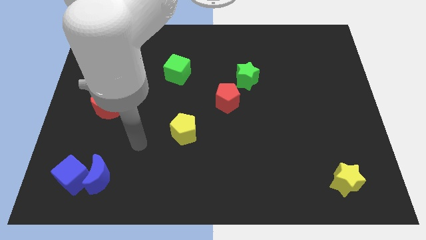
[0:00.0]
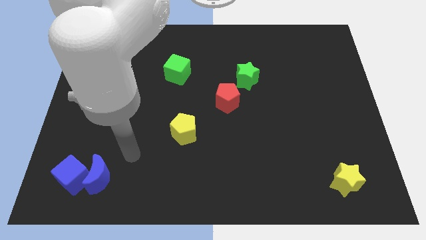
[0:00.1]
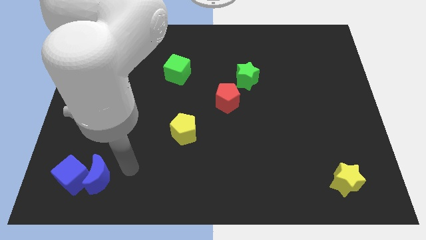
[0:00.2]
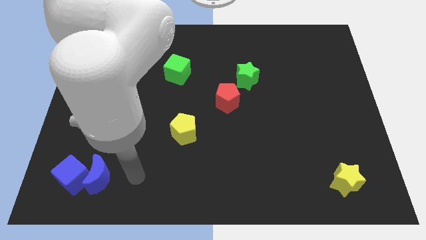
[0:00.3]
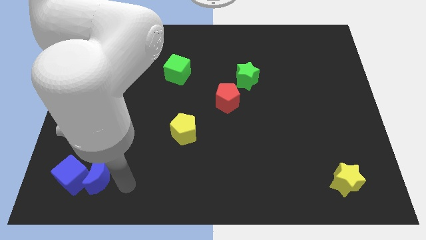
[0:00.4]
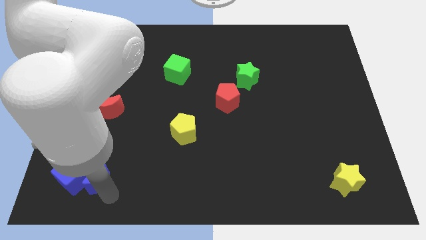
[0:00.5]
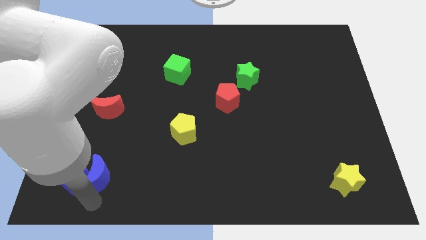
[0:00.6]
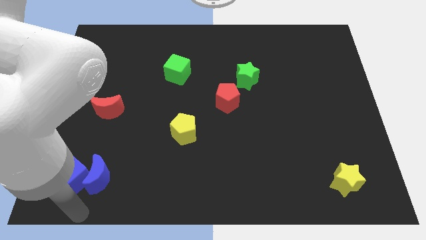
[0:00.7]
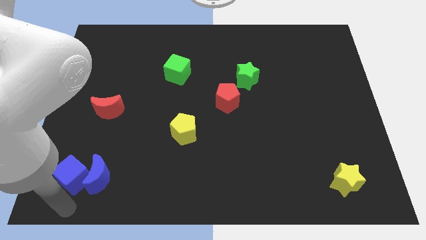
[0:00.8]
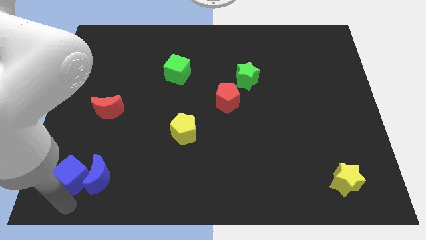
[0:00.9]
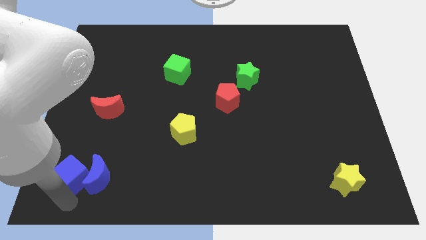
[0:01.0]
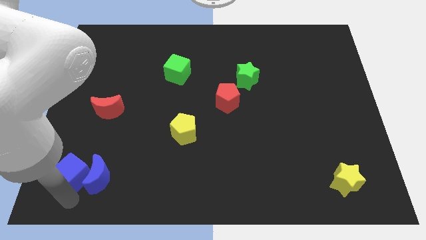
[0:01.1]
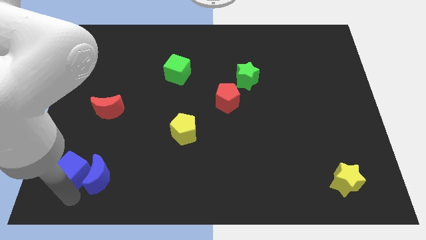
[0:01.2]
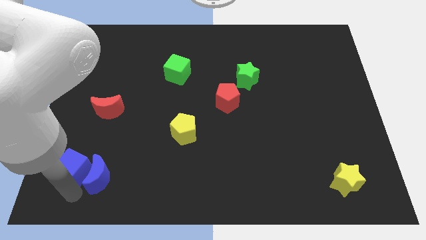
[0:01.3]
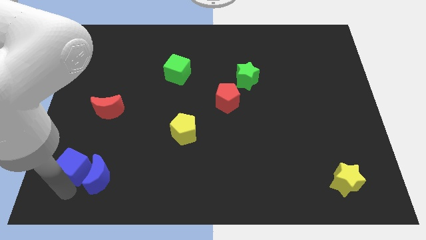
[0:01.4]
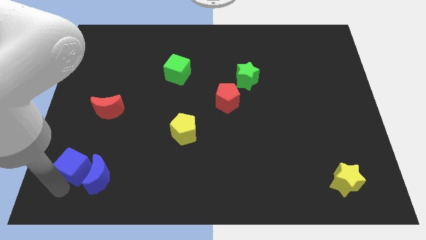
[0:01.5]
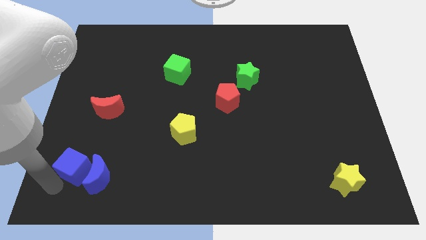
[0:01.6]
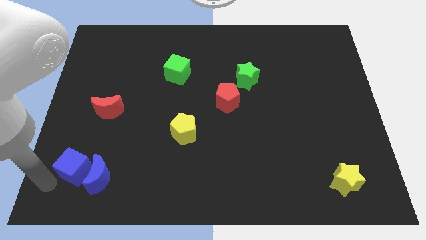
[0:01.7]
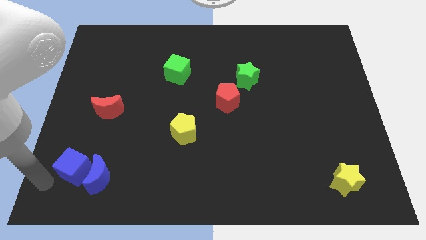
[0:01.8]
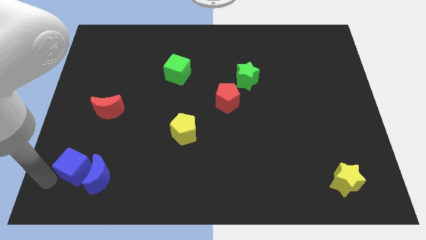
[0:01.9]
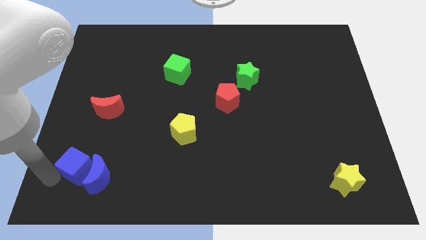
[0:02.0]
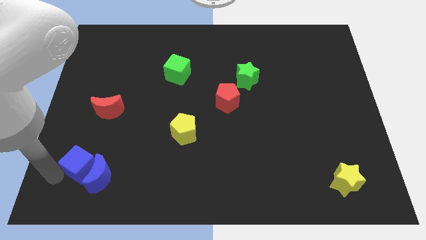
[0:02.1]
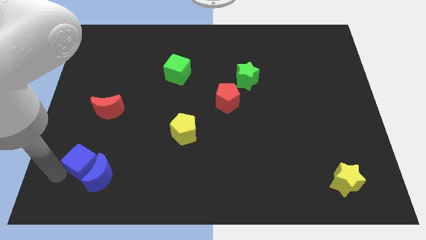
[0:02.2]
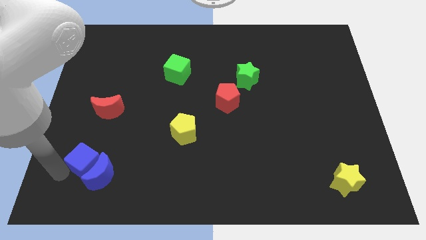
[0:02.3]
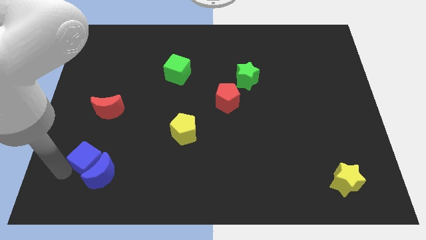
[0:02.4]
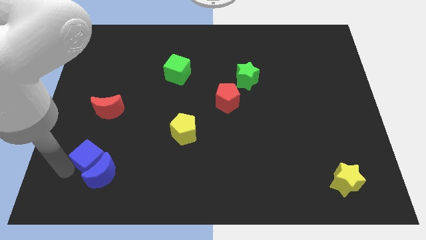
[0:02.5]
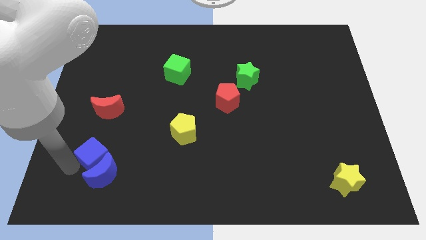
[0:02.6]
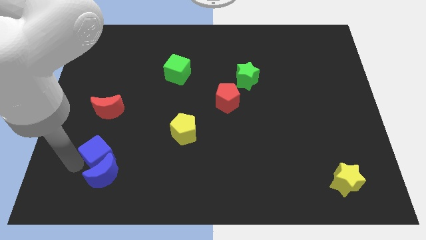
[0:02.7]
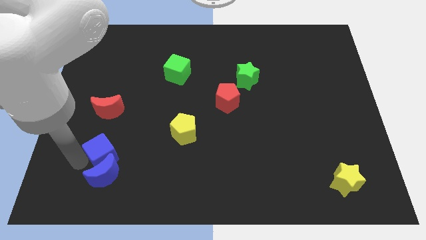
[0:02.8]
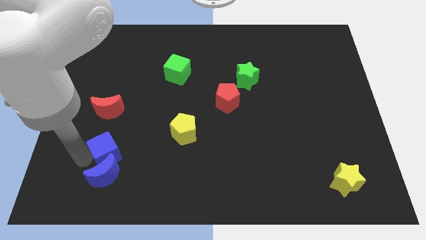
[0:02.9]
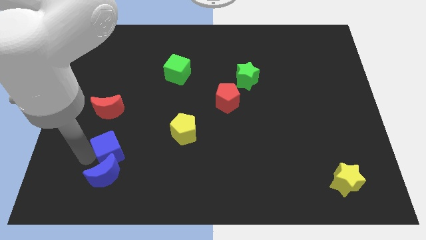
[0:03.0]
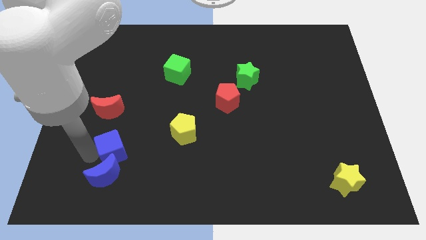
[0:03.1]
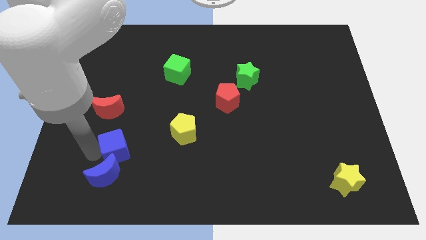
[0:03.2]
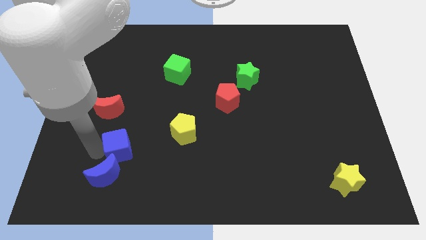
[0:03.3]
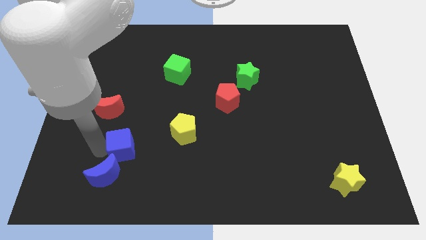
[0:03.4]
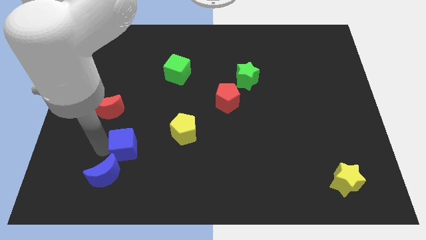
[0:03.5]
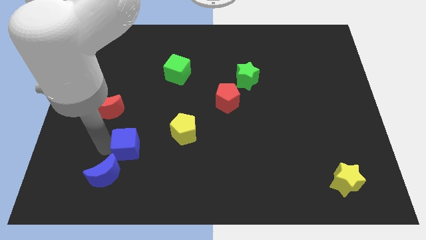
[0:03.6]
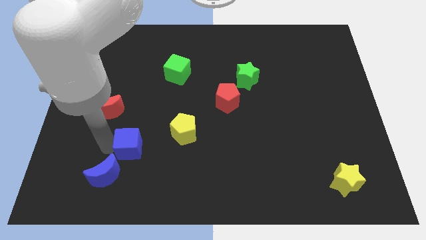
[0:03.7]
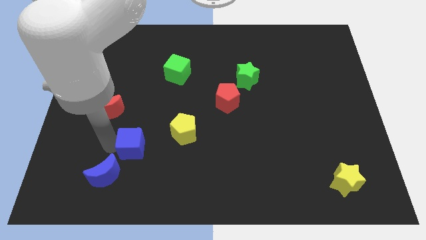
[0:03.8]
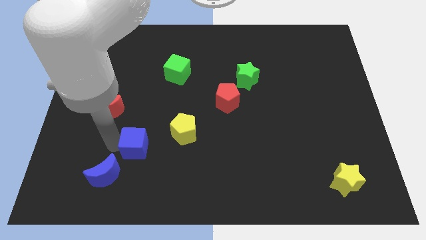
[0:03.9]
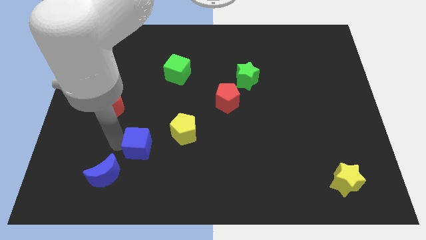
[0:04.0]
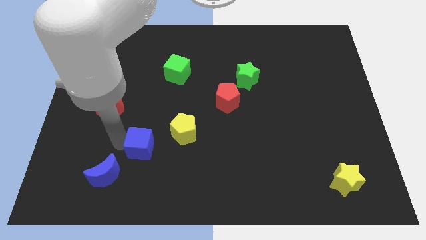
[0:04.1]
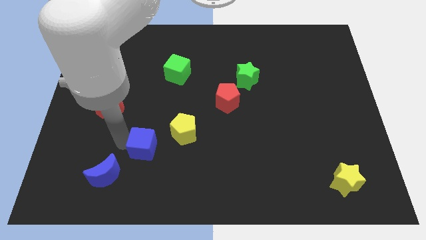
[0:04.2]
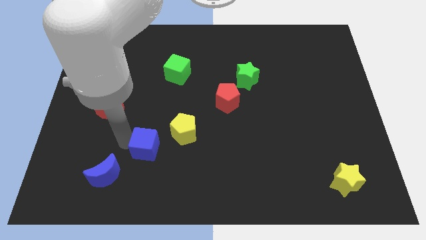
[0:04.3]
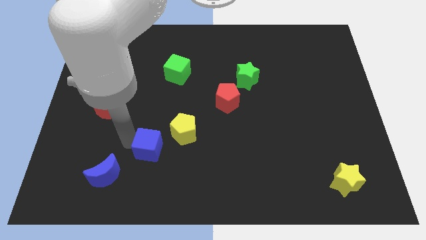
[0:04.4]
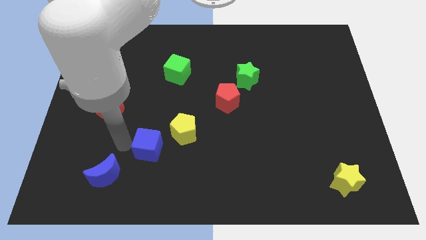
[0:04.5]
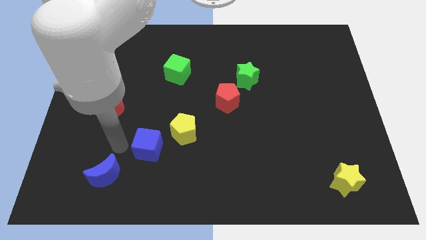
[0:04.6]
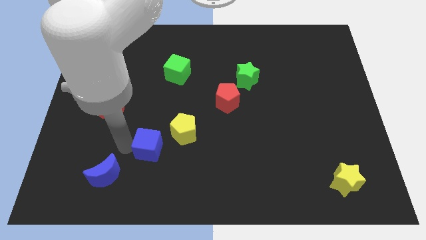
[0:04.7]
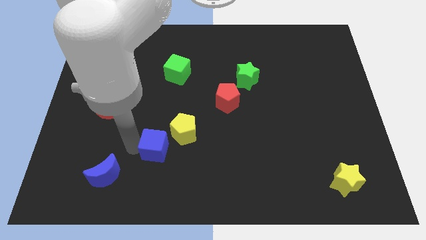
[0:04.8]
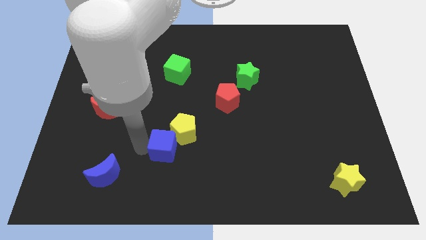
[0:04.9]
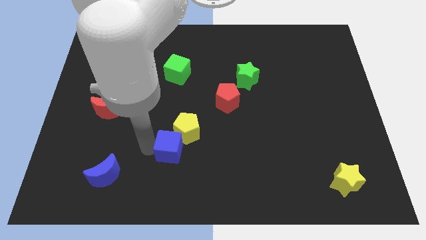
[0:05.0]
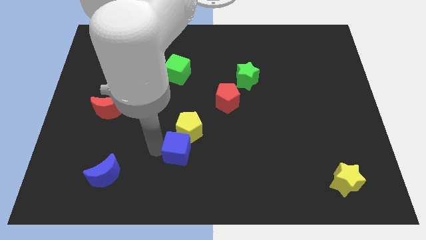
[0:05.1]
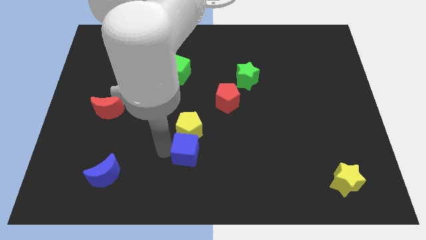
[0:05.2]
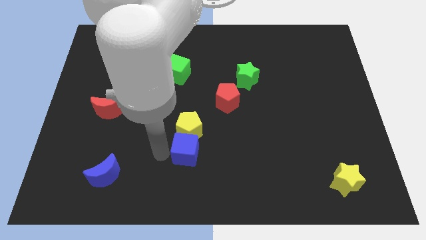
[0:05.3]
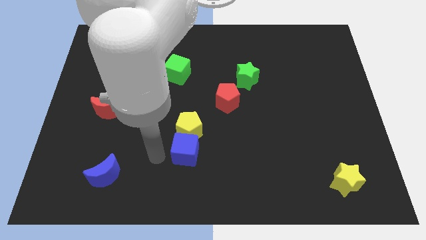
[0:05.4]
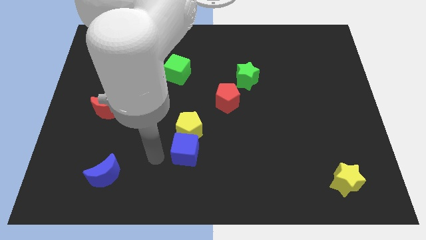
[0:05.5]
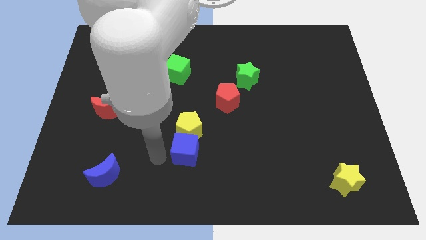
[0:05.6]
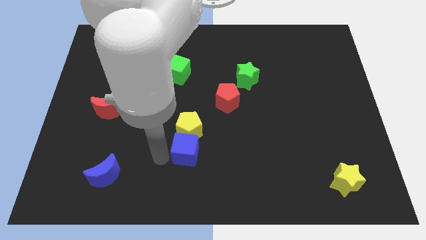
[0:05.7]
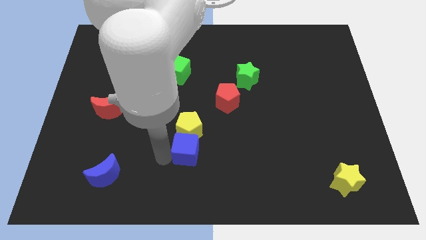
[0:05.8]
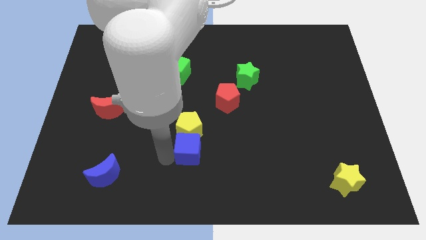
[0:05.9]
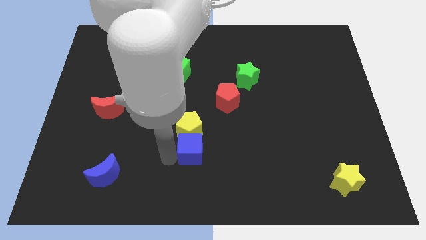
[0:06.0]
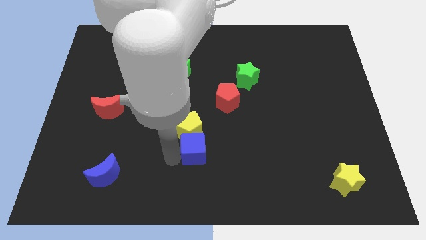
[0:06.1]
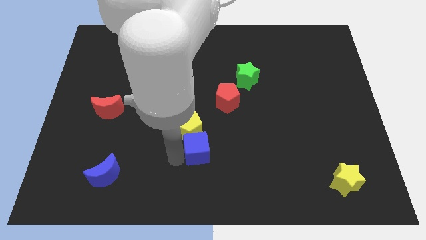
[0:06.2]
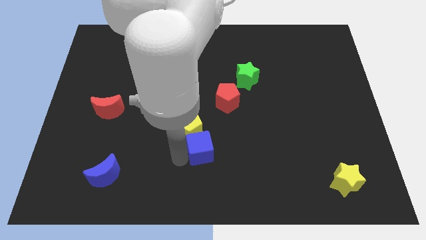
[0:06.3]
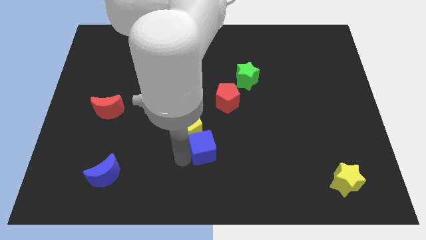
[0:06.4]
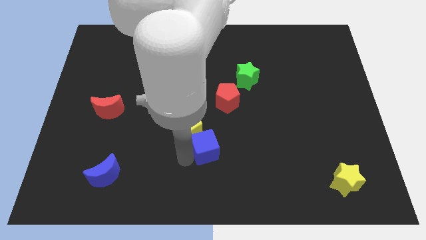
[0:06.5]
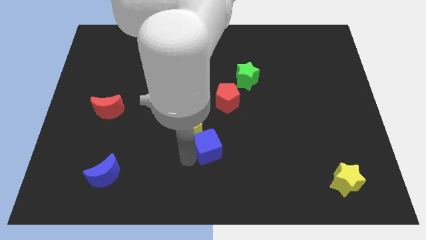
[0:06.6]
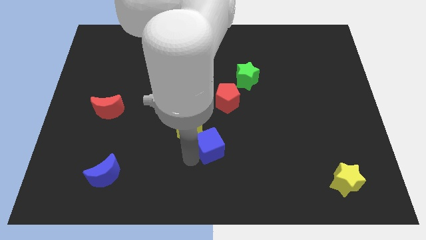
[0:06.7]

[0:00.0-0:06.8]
slide the blue cube to the right of the yellow pentagon

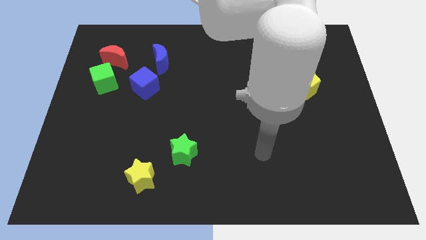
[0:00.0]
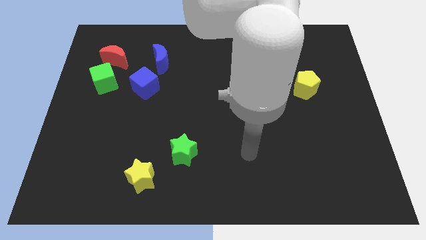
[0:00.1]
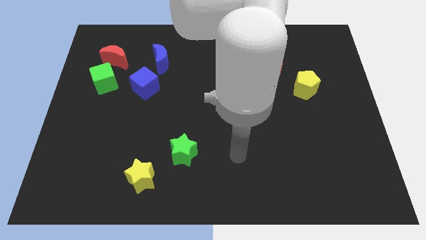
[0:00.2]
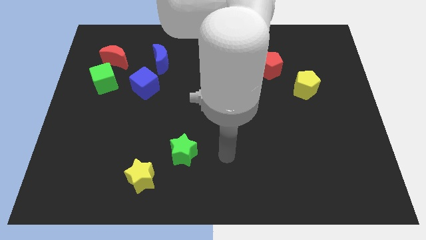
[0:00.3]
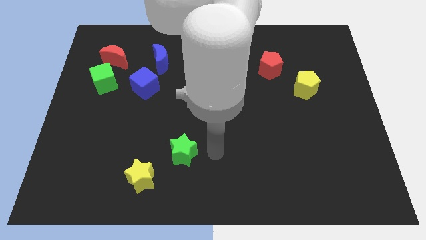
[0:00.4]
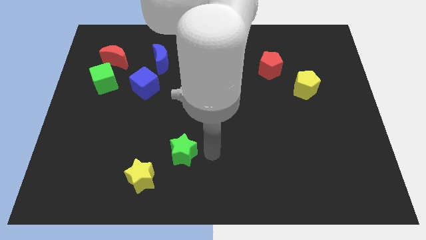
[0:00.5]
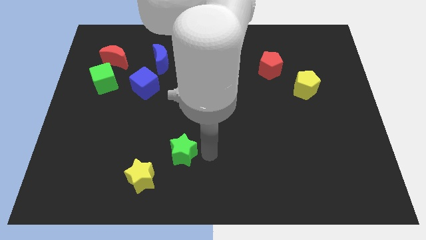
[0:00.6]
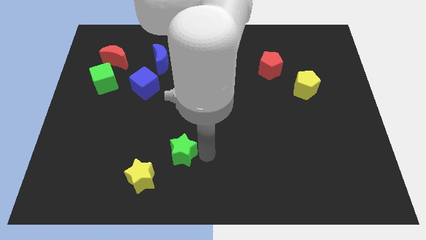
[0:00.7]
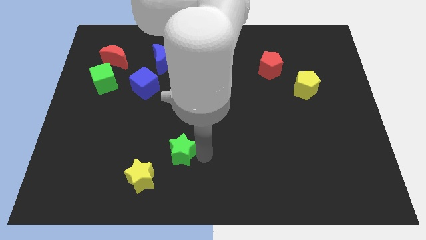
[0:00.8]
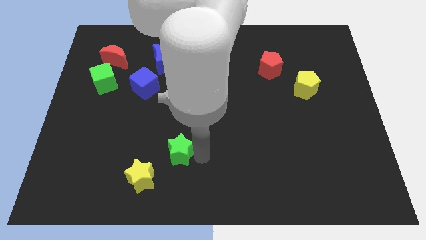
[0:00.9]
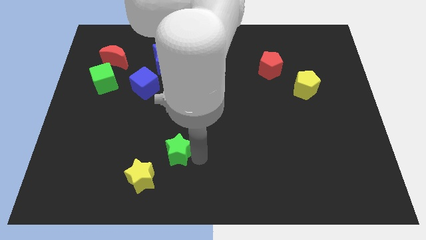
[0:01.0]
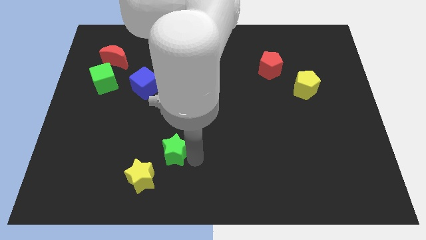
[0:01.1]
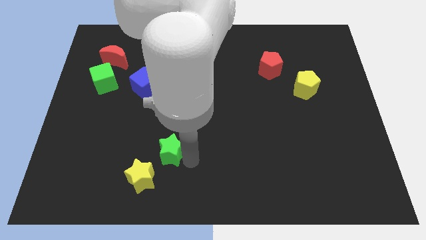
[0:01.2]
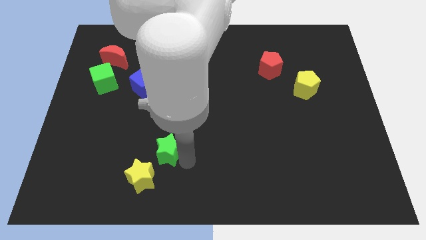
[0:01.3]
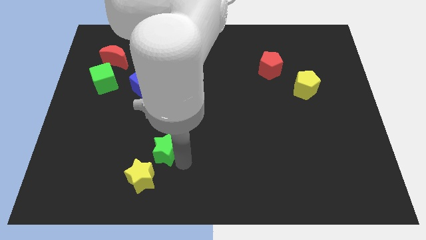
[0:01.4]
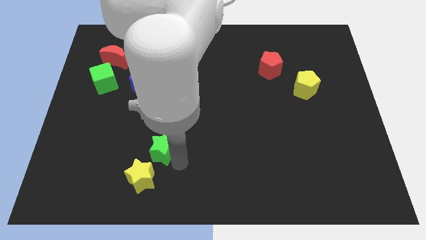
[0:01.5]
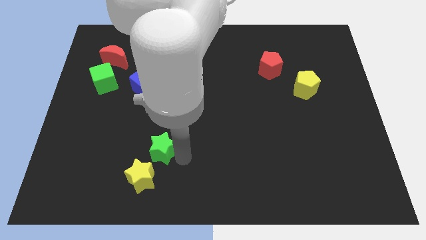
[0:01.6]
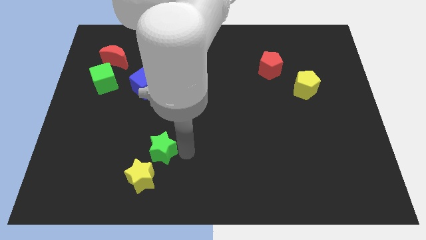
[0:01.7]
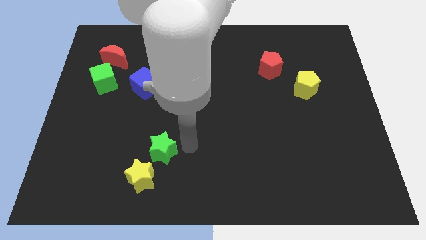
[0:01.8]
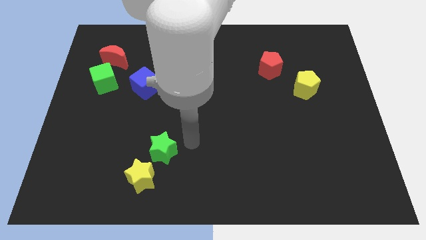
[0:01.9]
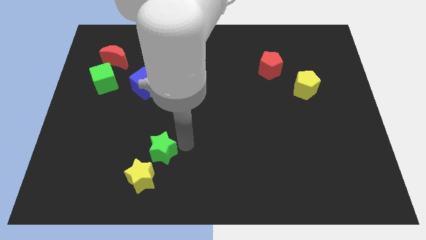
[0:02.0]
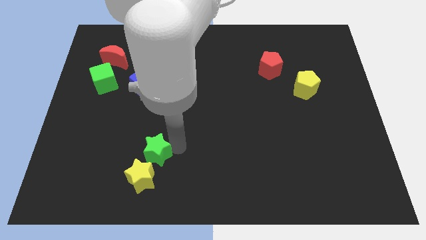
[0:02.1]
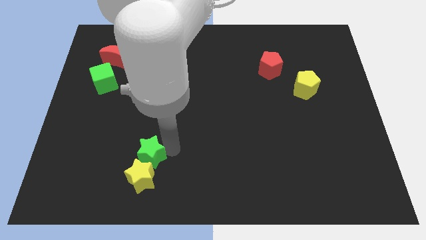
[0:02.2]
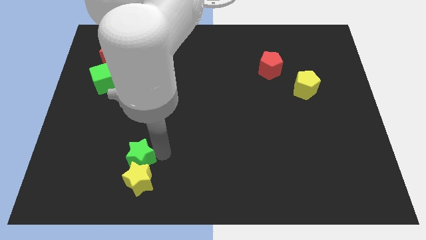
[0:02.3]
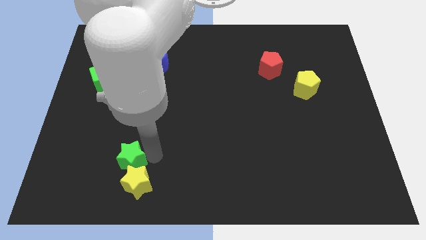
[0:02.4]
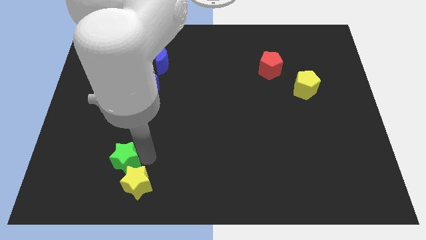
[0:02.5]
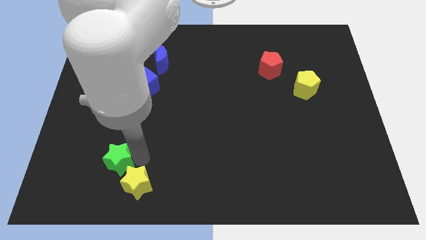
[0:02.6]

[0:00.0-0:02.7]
move the green star to the left of the yellow star
